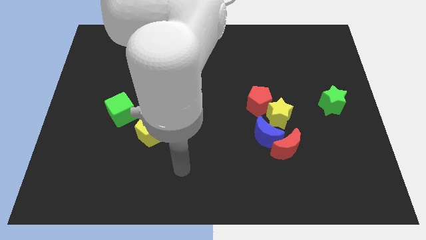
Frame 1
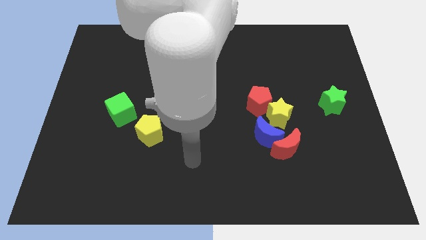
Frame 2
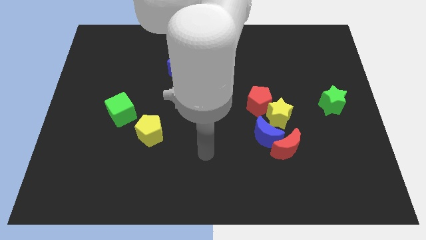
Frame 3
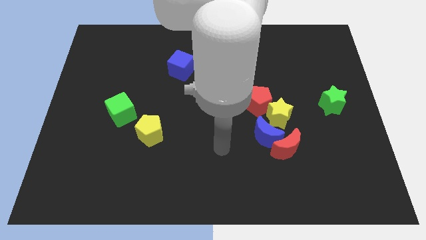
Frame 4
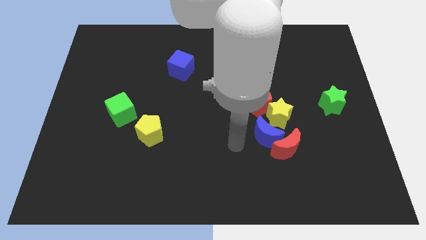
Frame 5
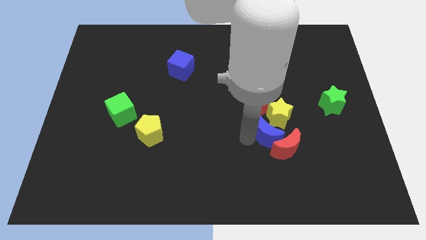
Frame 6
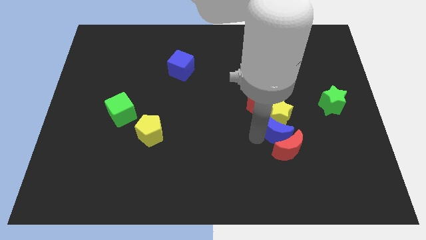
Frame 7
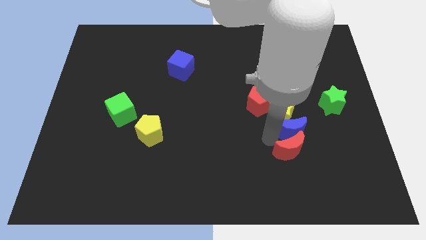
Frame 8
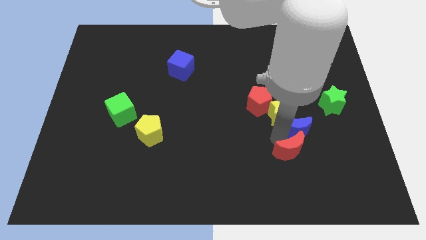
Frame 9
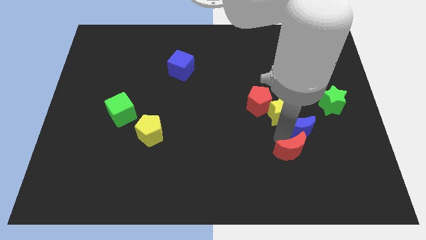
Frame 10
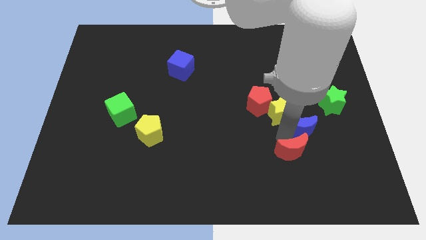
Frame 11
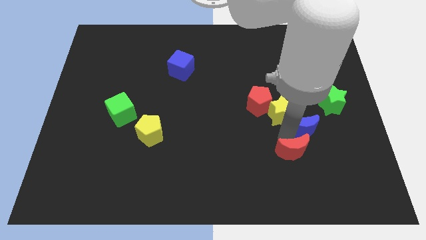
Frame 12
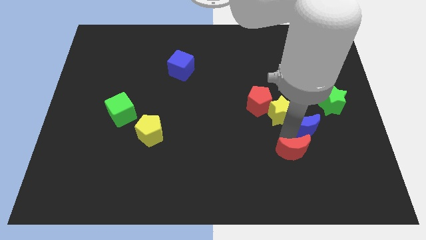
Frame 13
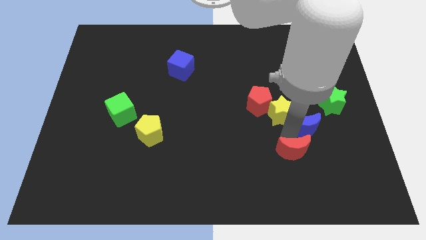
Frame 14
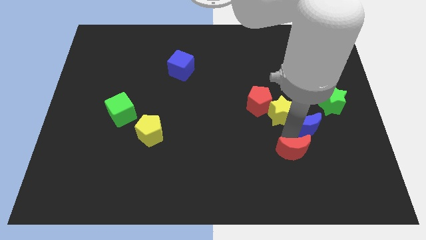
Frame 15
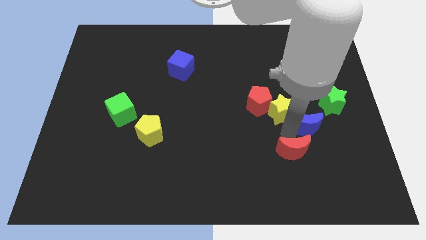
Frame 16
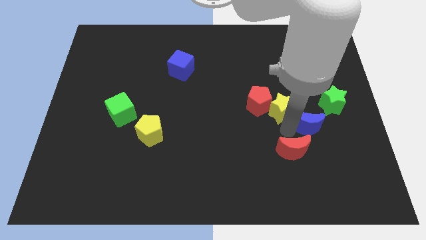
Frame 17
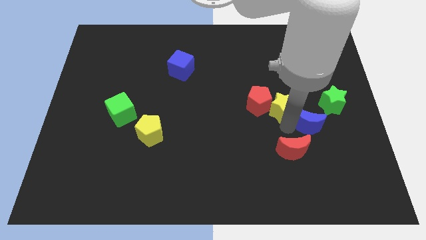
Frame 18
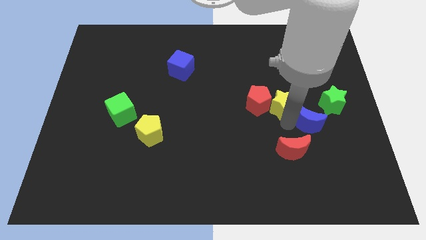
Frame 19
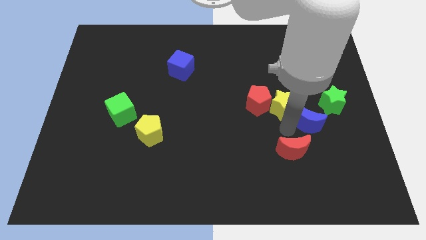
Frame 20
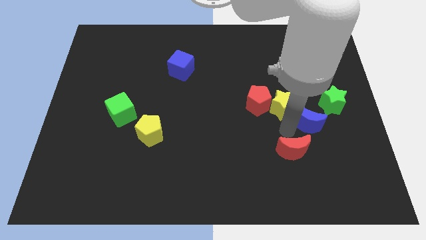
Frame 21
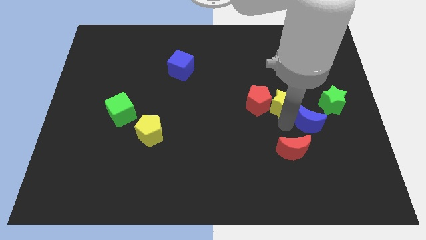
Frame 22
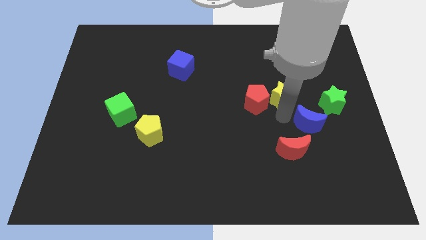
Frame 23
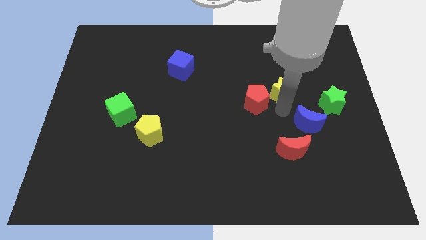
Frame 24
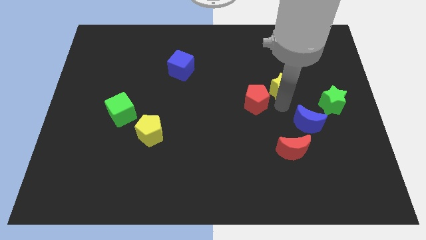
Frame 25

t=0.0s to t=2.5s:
pull the yellow star apart from the group

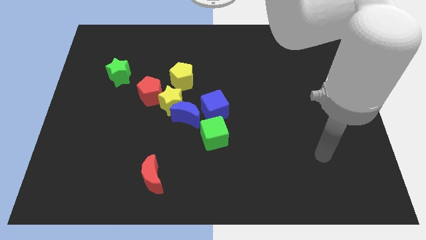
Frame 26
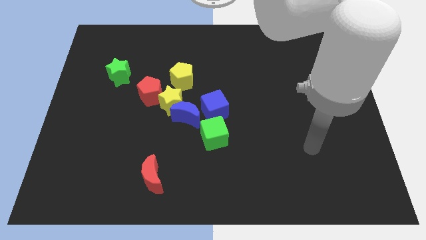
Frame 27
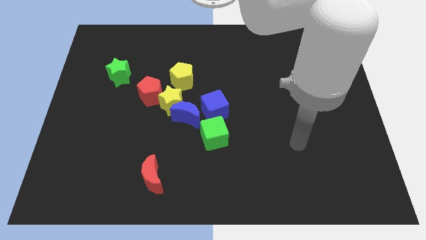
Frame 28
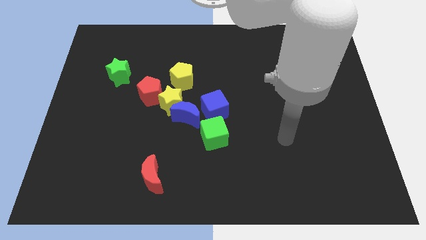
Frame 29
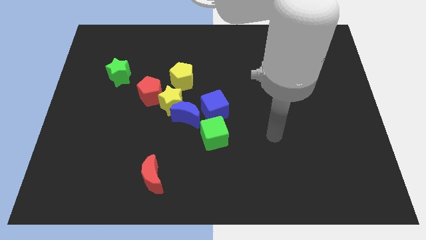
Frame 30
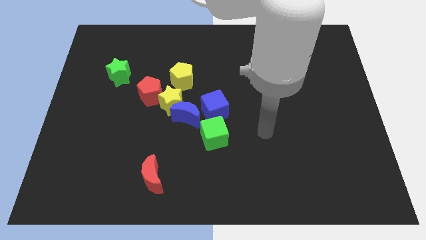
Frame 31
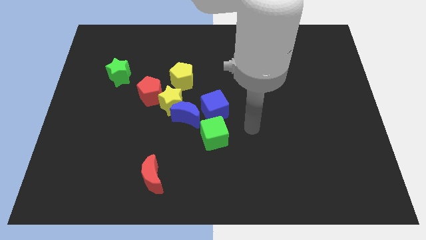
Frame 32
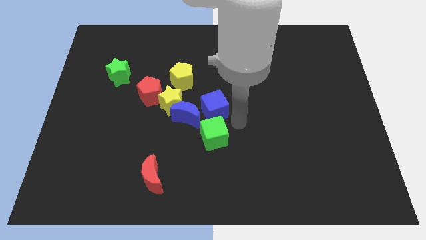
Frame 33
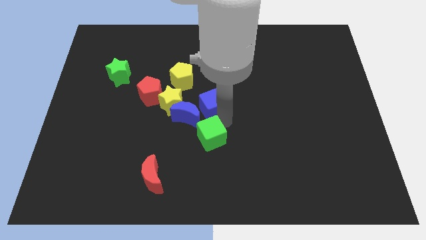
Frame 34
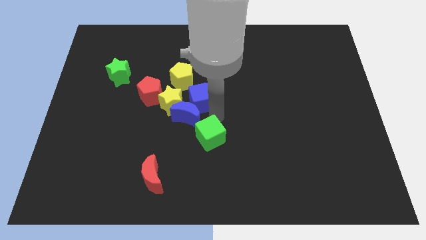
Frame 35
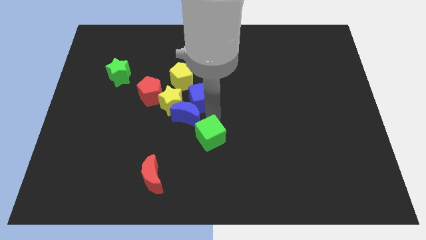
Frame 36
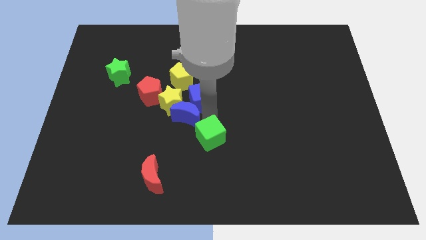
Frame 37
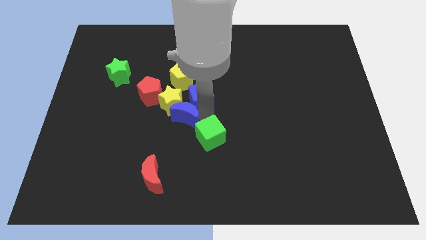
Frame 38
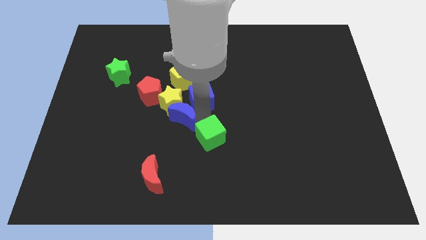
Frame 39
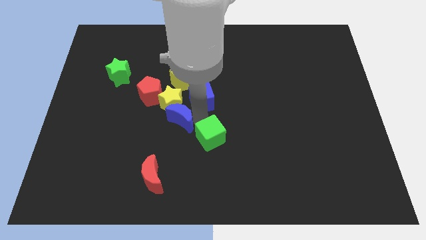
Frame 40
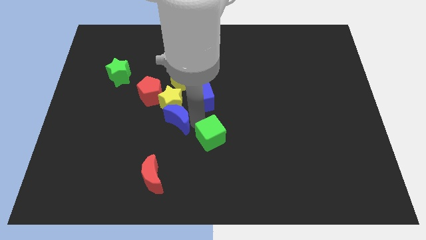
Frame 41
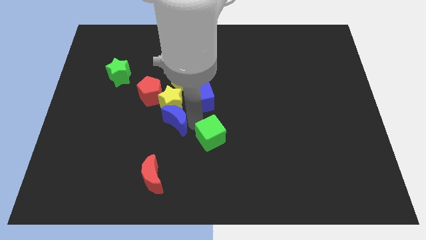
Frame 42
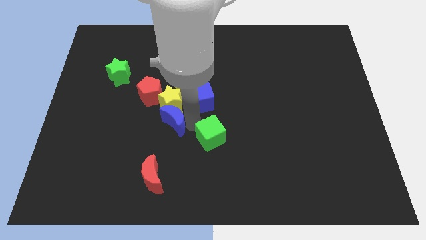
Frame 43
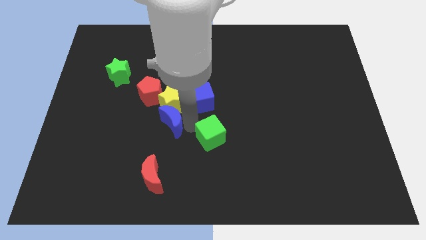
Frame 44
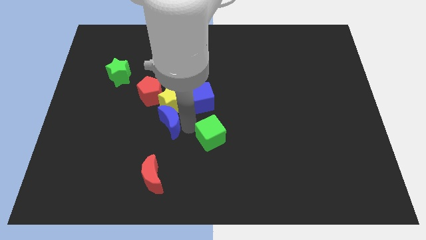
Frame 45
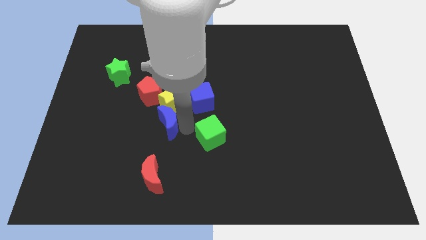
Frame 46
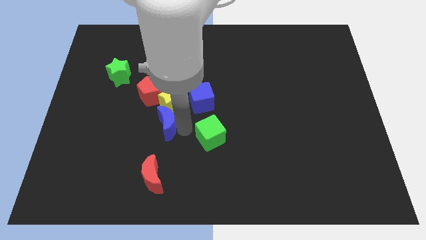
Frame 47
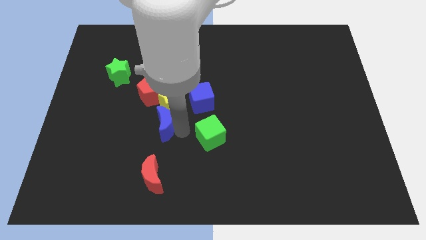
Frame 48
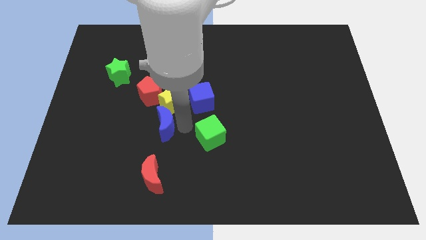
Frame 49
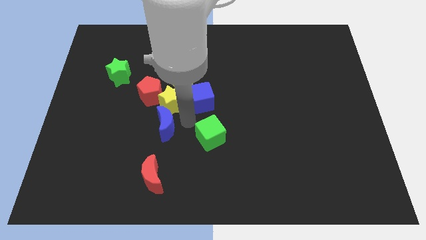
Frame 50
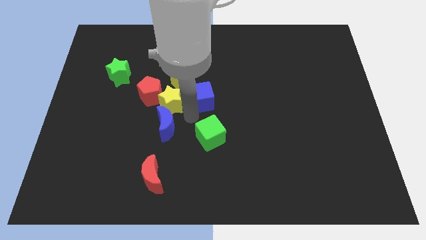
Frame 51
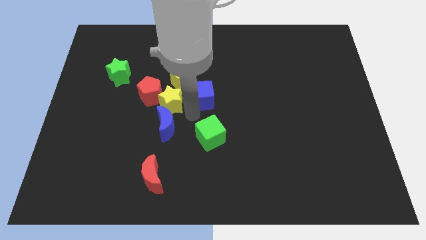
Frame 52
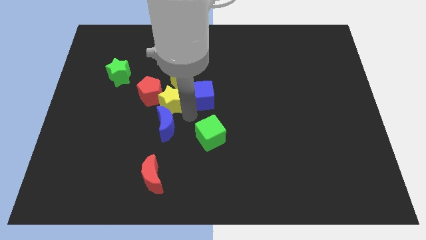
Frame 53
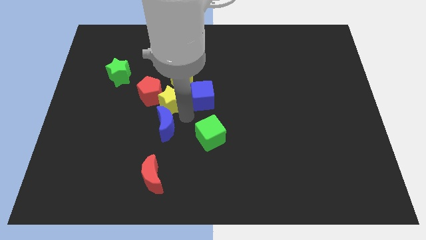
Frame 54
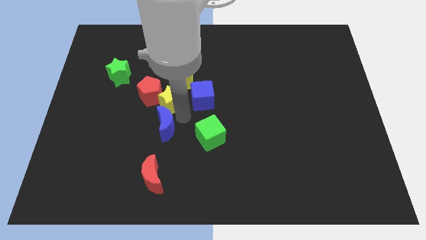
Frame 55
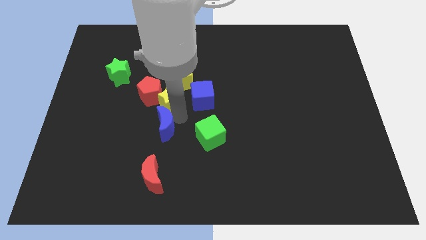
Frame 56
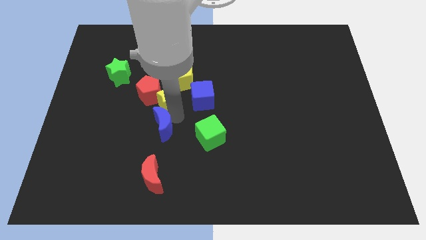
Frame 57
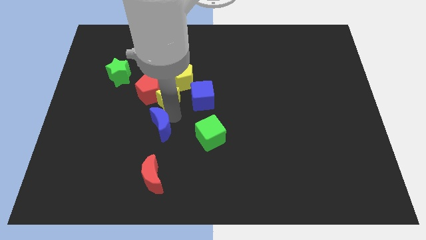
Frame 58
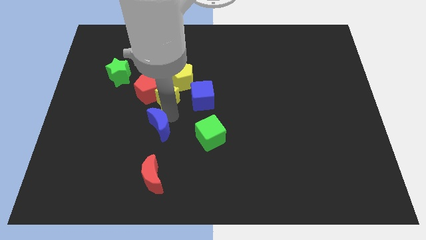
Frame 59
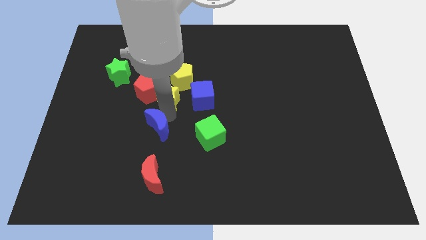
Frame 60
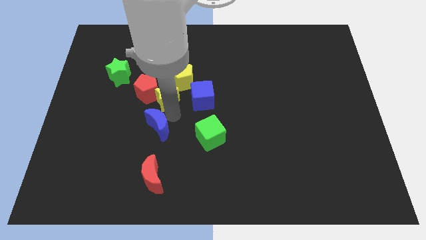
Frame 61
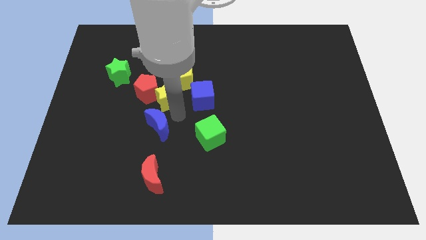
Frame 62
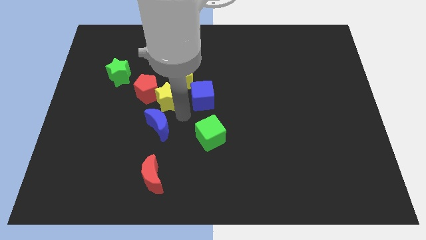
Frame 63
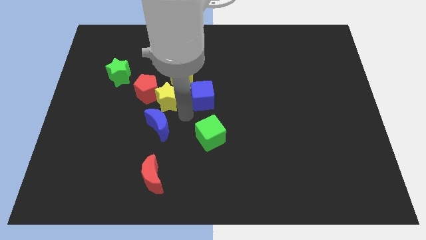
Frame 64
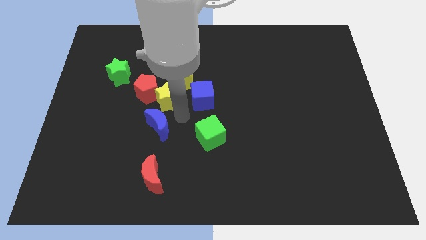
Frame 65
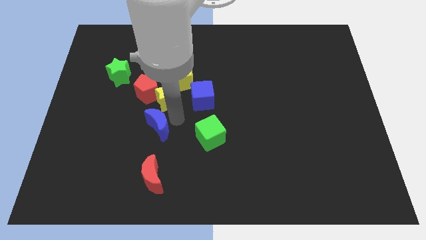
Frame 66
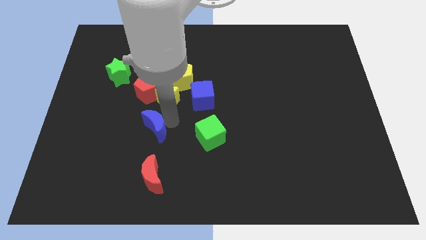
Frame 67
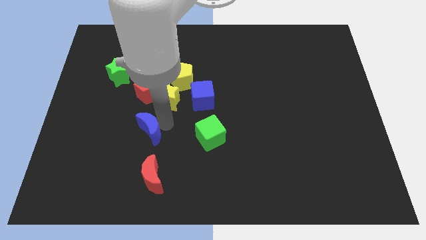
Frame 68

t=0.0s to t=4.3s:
move the blue moon away from the yellow star, blue cube, and green cube

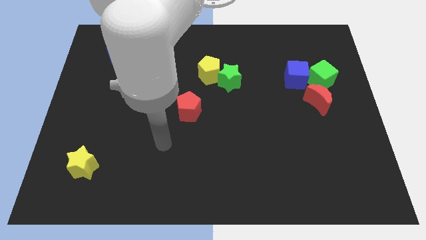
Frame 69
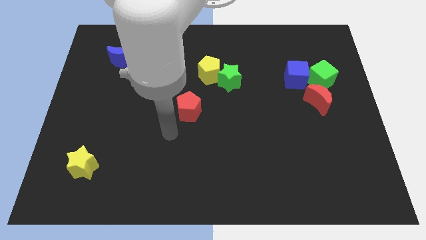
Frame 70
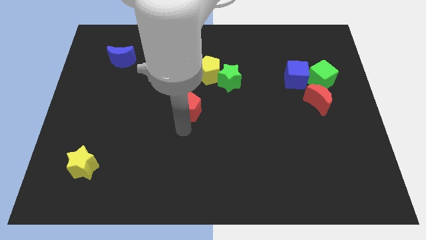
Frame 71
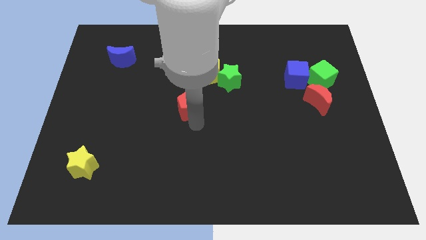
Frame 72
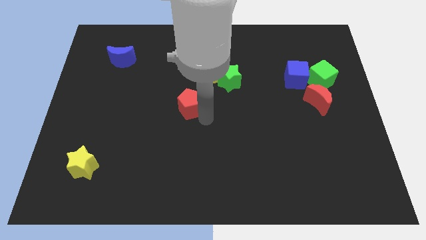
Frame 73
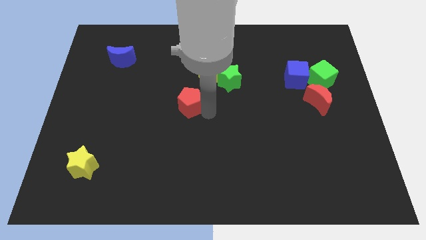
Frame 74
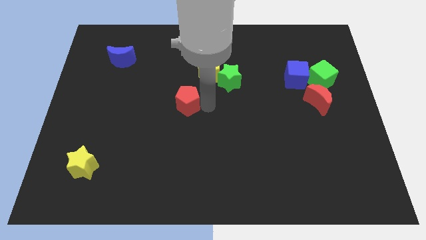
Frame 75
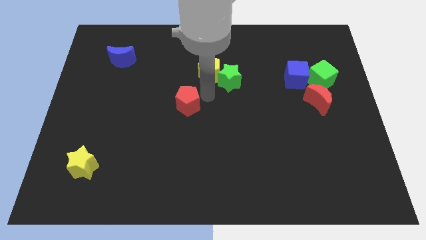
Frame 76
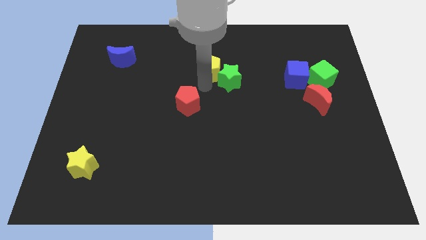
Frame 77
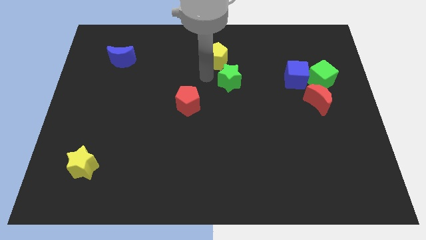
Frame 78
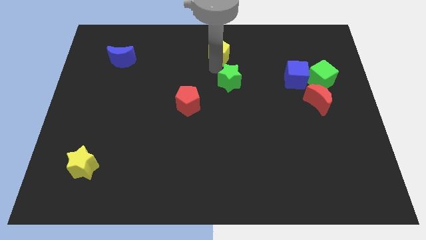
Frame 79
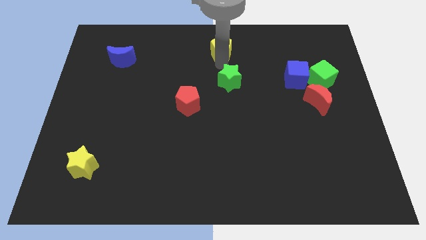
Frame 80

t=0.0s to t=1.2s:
move the green star away from the yellow pentagon

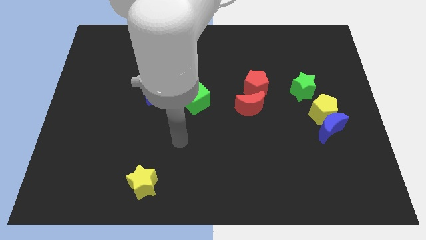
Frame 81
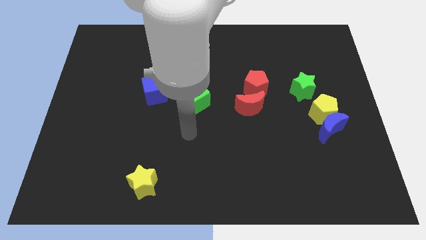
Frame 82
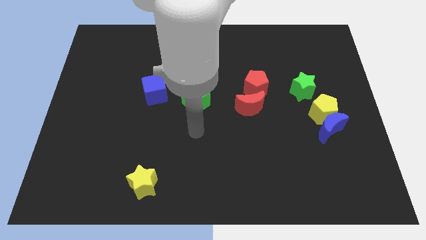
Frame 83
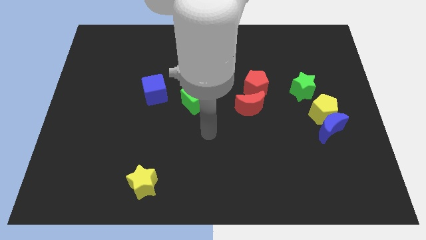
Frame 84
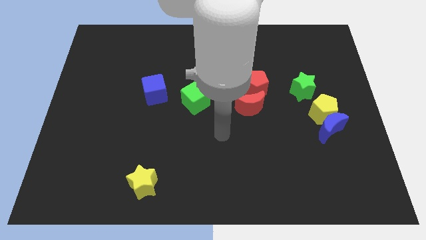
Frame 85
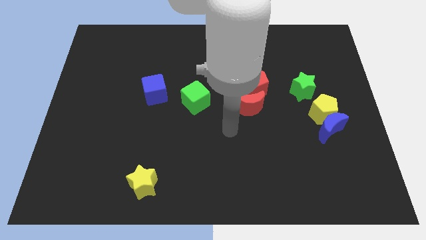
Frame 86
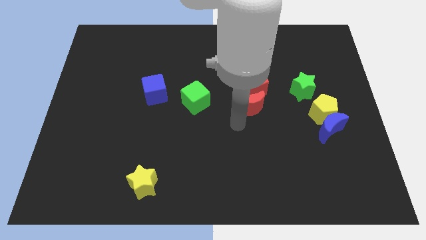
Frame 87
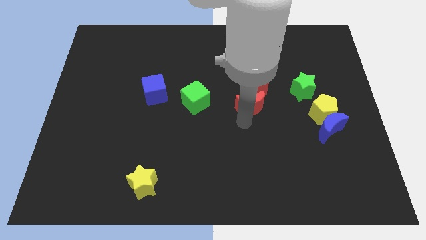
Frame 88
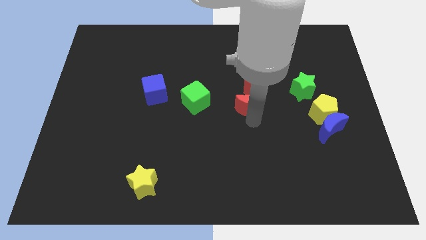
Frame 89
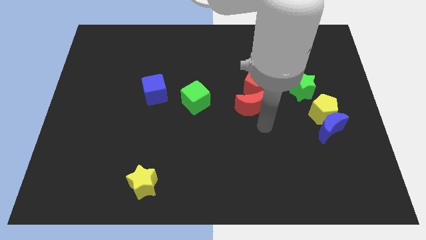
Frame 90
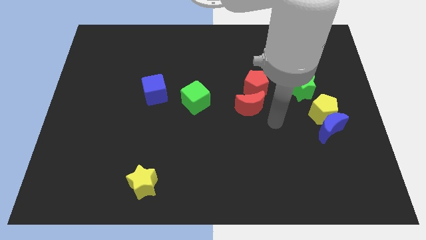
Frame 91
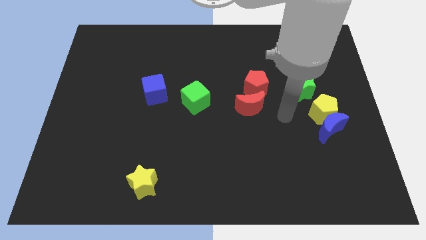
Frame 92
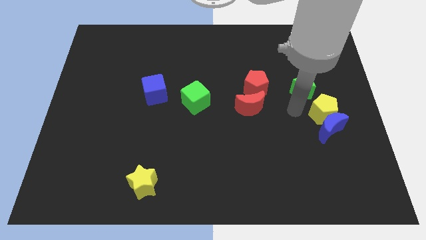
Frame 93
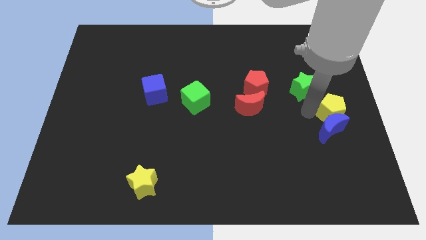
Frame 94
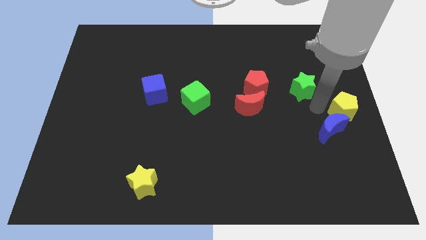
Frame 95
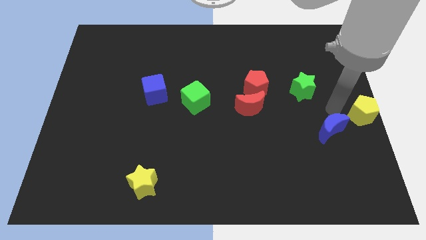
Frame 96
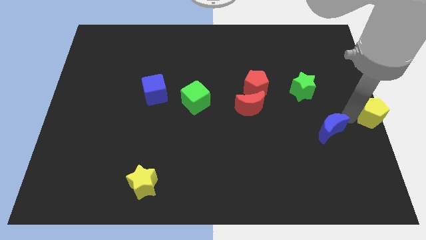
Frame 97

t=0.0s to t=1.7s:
pull the blue moon apart from the yellow pentagon
